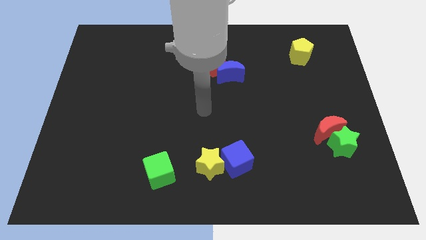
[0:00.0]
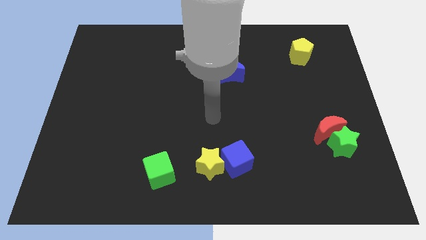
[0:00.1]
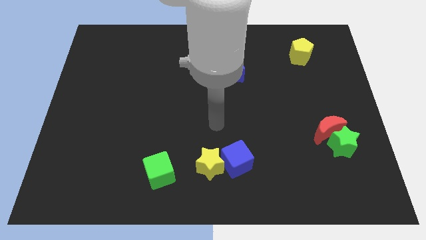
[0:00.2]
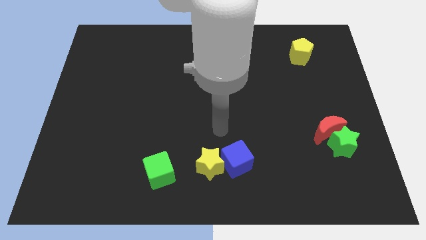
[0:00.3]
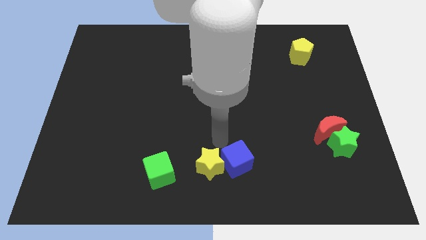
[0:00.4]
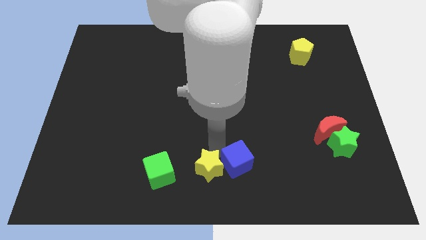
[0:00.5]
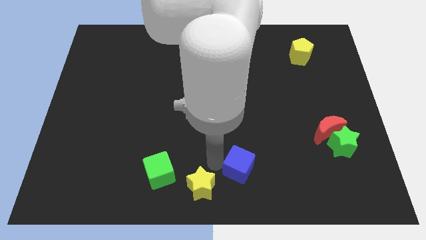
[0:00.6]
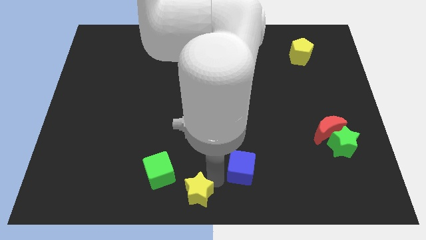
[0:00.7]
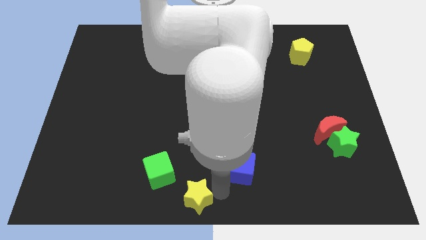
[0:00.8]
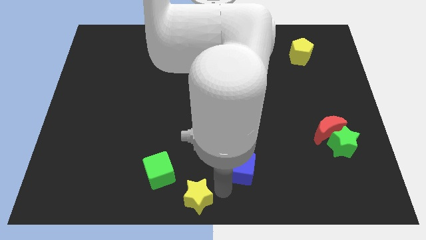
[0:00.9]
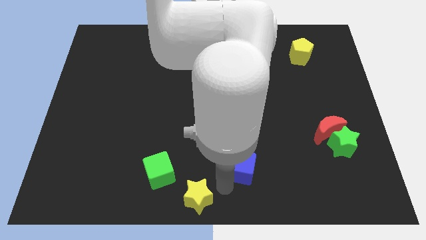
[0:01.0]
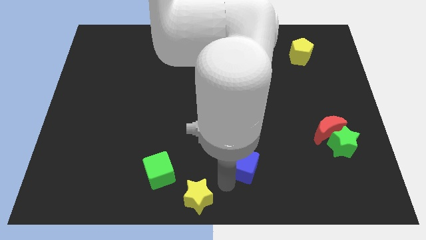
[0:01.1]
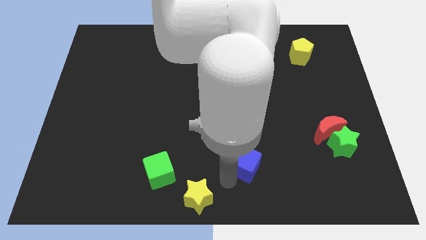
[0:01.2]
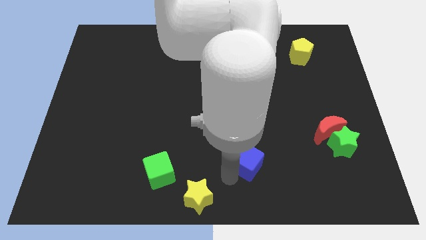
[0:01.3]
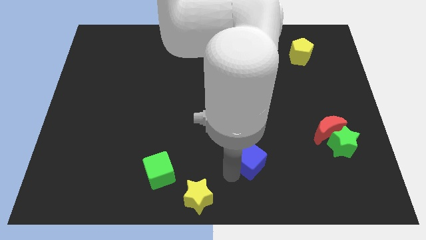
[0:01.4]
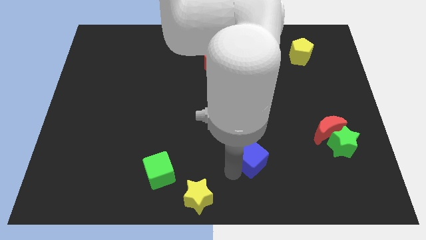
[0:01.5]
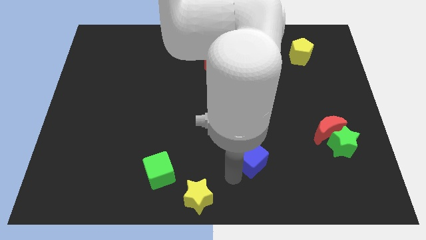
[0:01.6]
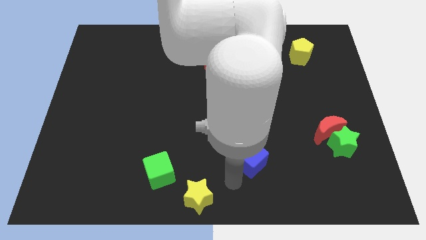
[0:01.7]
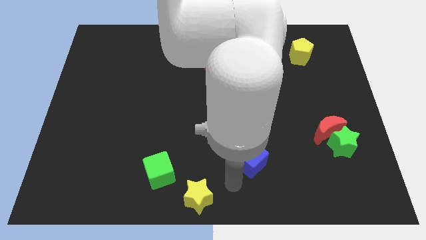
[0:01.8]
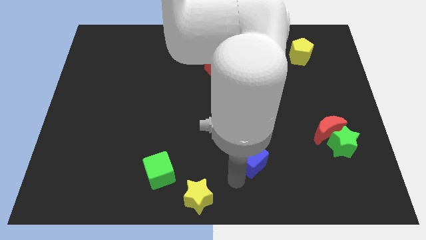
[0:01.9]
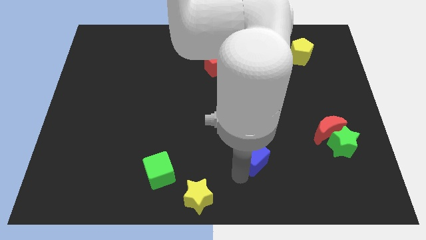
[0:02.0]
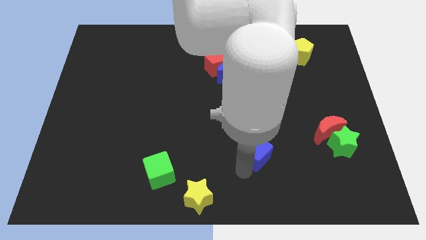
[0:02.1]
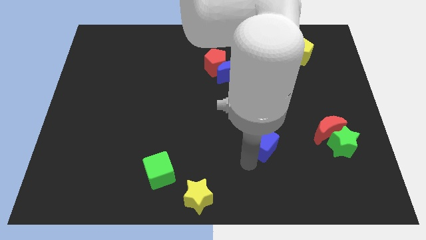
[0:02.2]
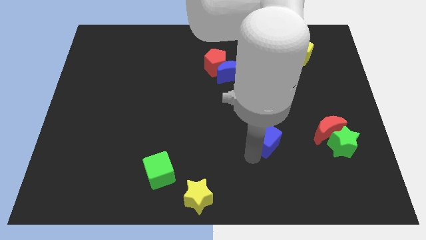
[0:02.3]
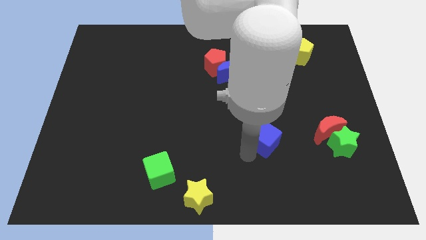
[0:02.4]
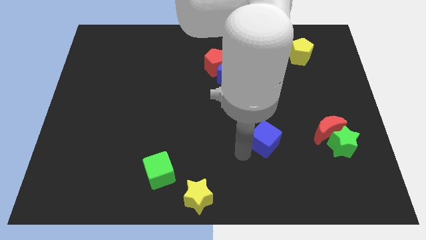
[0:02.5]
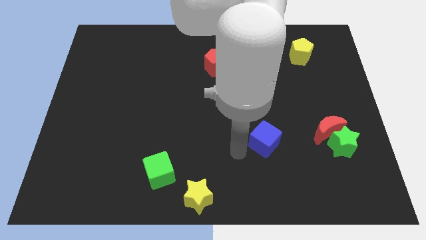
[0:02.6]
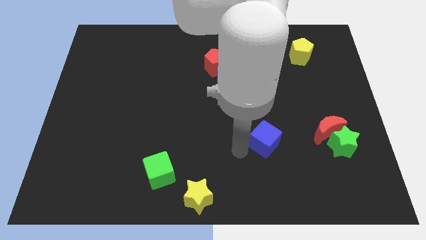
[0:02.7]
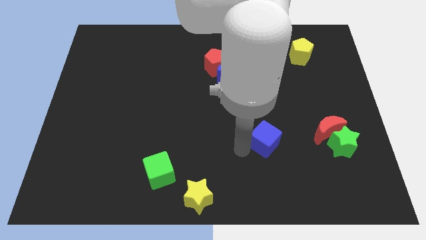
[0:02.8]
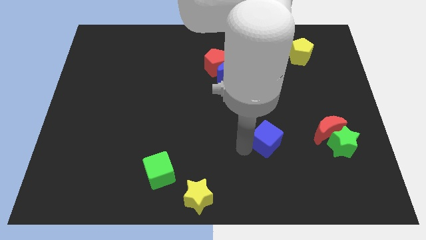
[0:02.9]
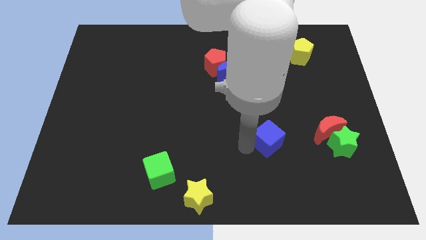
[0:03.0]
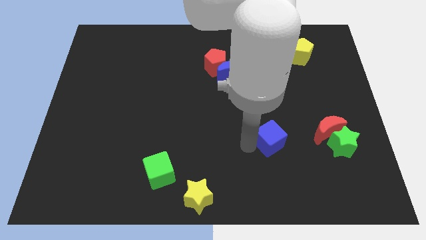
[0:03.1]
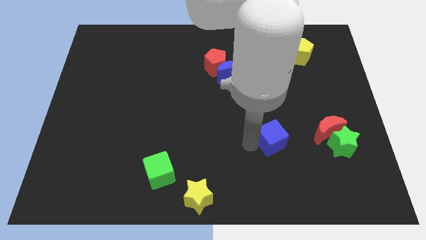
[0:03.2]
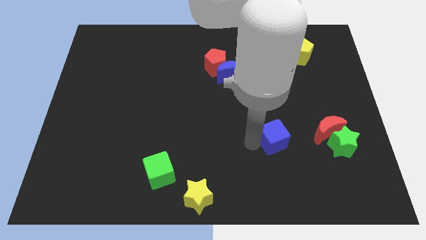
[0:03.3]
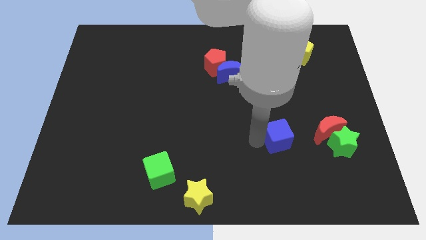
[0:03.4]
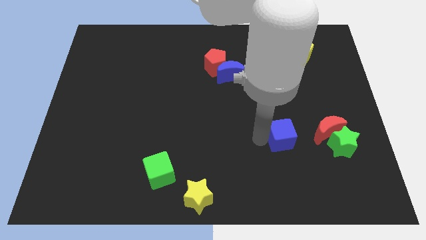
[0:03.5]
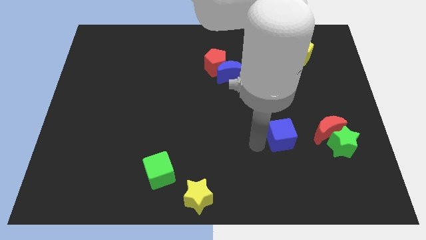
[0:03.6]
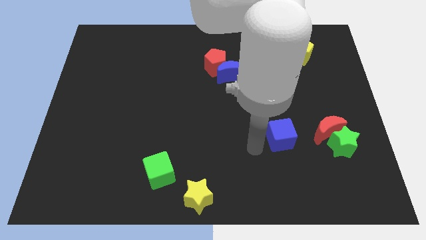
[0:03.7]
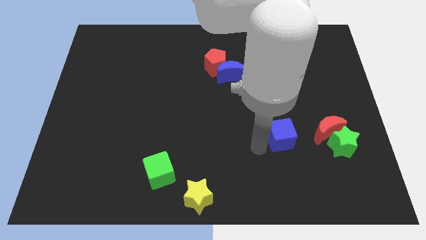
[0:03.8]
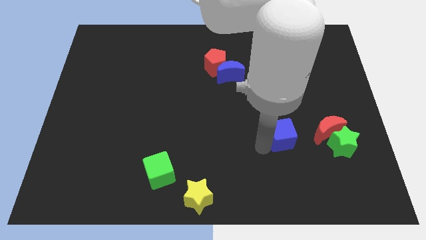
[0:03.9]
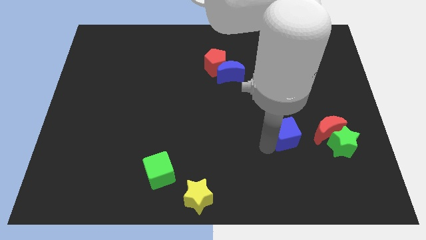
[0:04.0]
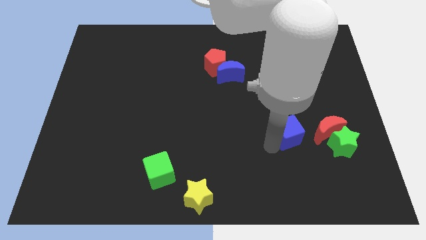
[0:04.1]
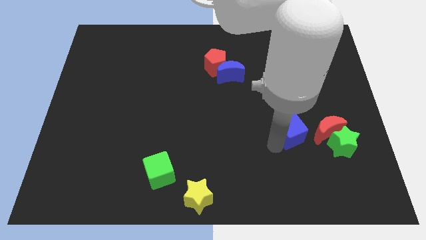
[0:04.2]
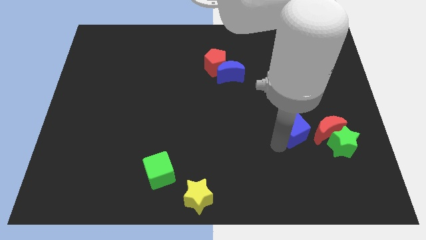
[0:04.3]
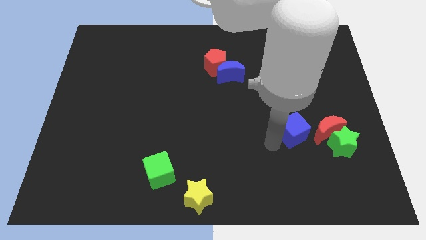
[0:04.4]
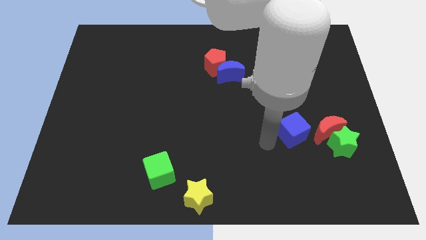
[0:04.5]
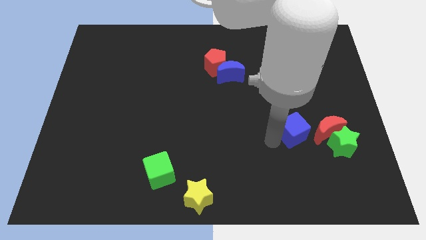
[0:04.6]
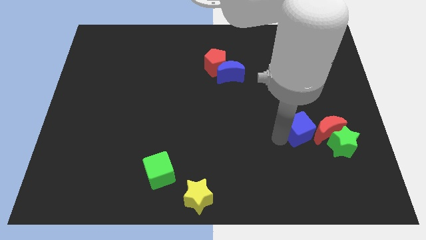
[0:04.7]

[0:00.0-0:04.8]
put the blue cube to the top left of the green star

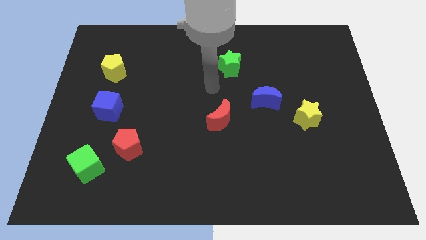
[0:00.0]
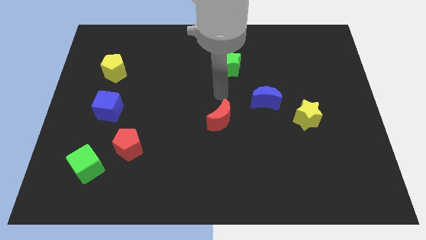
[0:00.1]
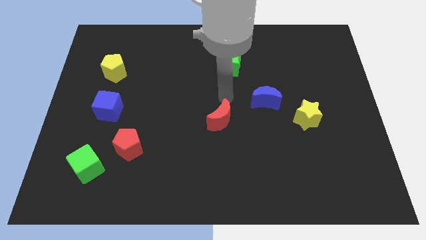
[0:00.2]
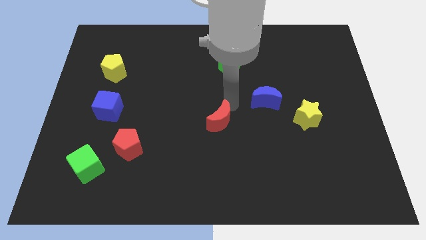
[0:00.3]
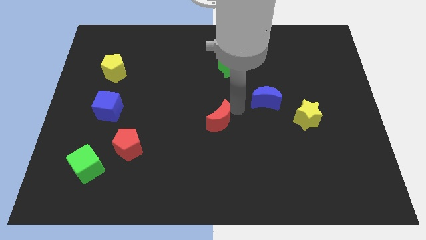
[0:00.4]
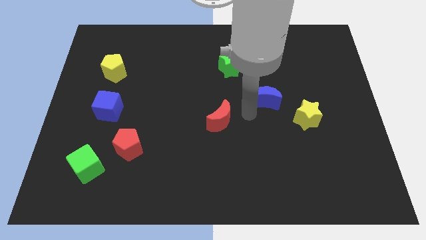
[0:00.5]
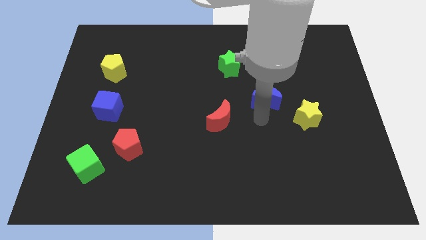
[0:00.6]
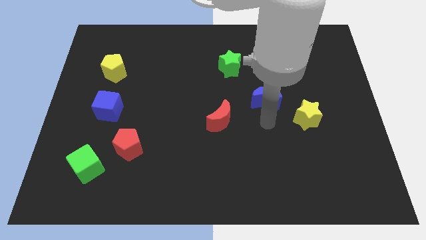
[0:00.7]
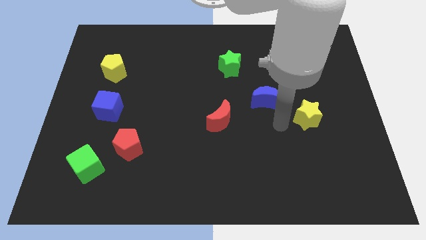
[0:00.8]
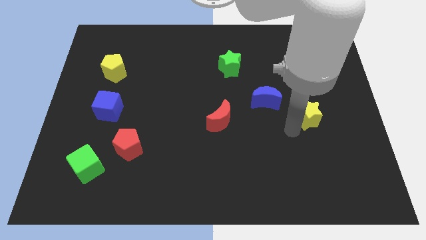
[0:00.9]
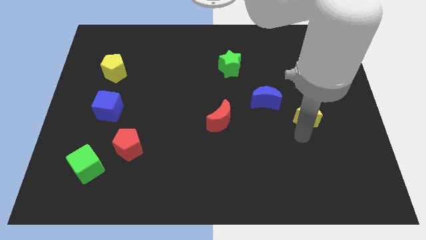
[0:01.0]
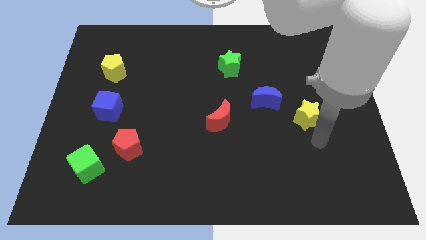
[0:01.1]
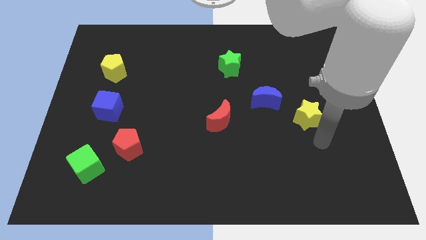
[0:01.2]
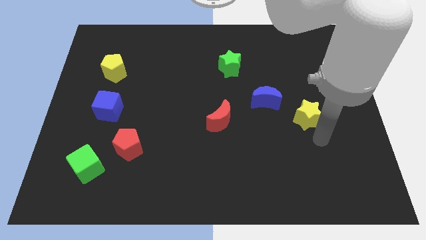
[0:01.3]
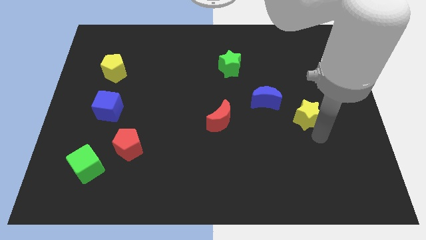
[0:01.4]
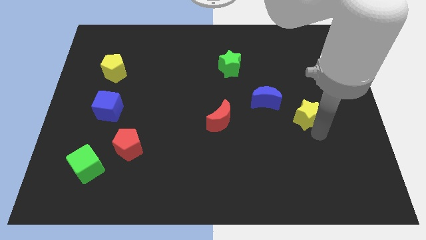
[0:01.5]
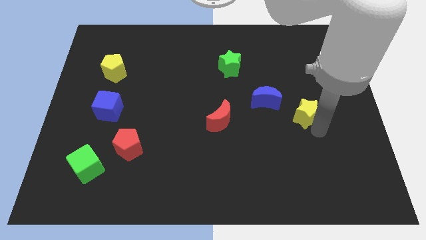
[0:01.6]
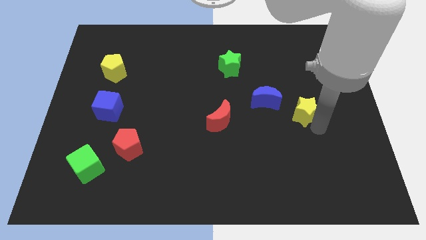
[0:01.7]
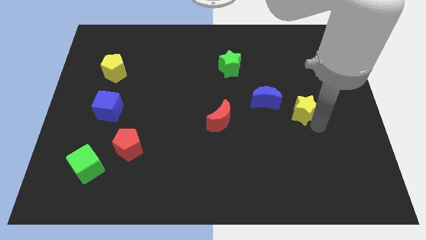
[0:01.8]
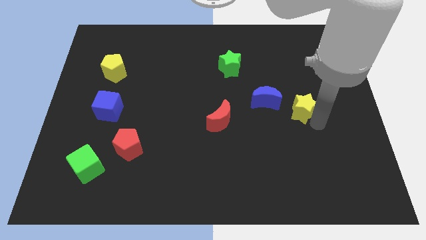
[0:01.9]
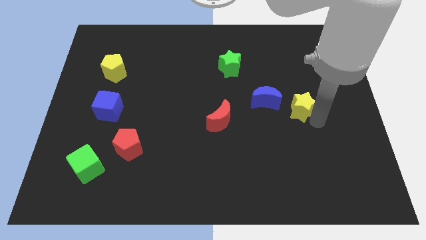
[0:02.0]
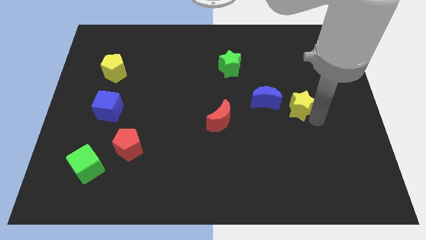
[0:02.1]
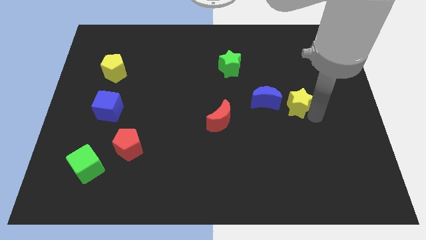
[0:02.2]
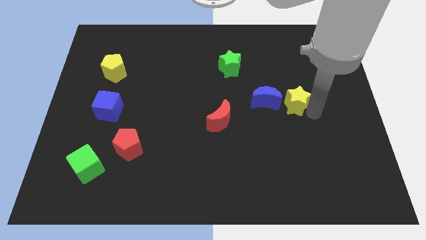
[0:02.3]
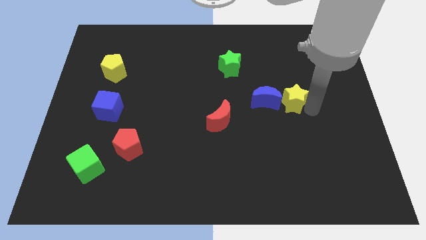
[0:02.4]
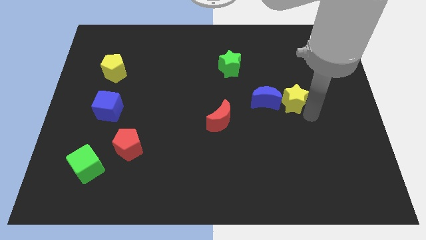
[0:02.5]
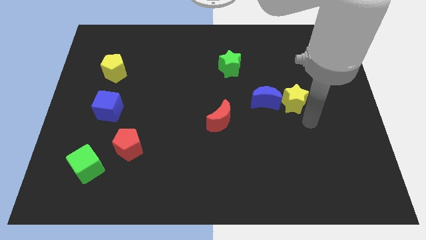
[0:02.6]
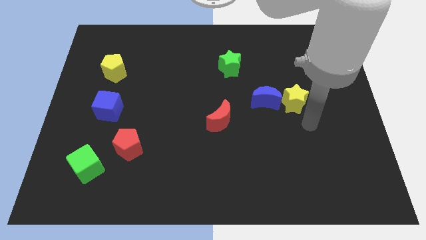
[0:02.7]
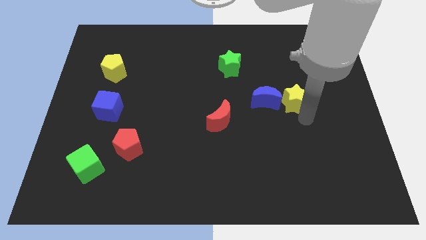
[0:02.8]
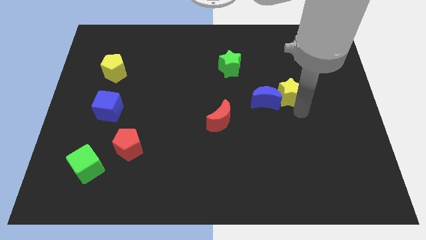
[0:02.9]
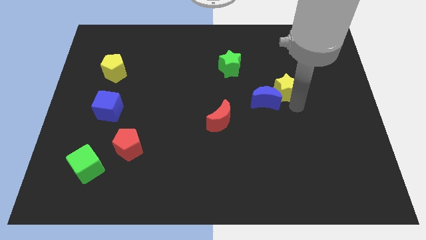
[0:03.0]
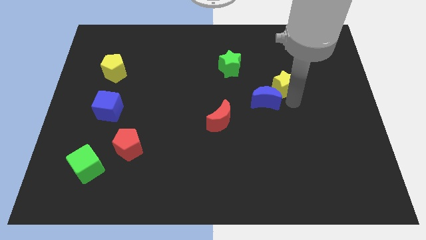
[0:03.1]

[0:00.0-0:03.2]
put the yellow star to the top side of the blue moon

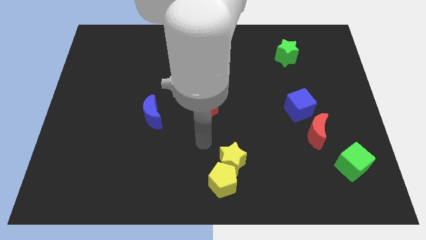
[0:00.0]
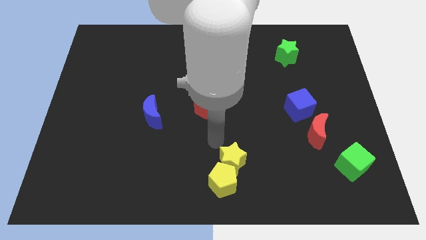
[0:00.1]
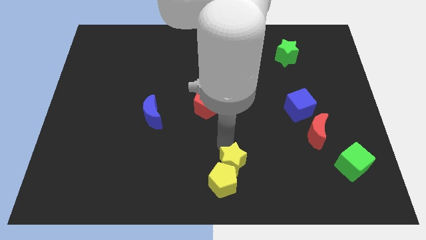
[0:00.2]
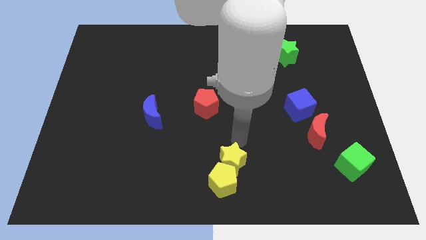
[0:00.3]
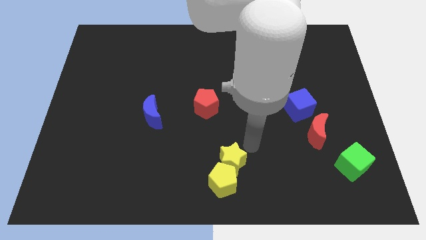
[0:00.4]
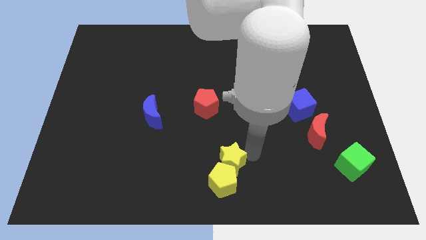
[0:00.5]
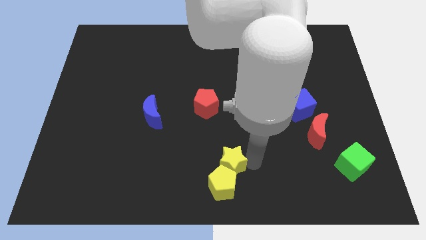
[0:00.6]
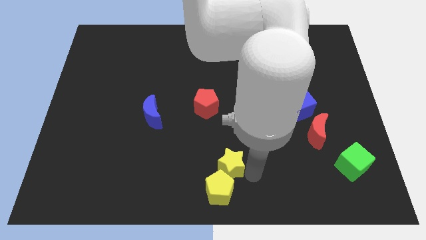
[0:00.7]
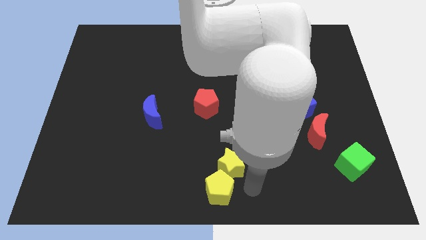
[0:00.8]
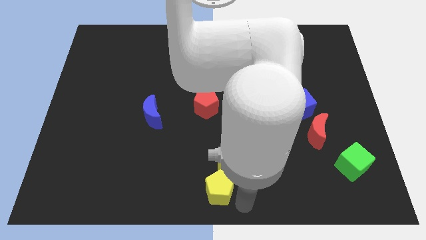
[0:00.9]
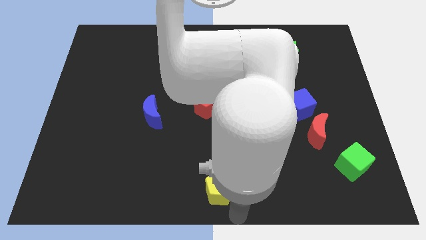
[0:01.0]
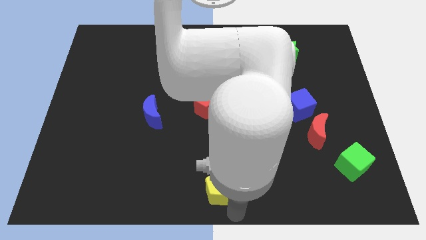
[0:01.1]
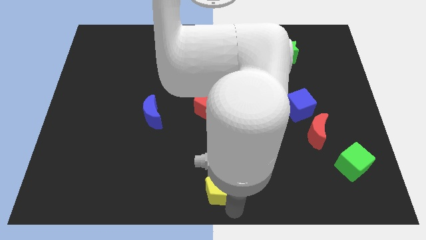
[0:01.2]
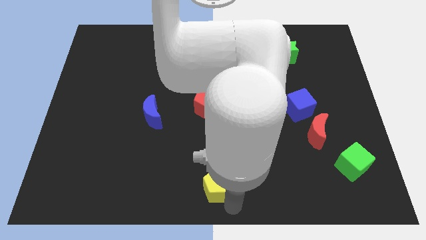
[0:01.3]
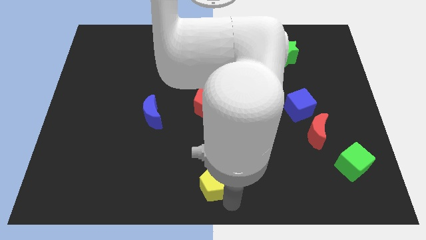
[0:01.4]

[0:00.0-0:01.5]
slide the yellow pentagon to the left side of the yellow star
